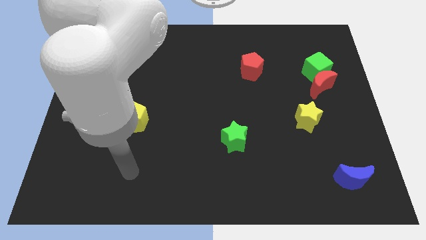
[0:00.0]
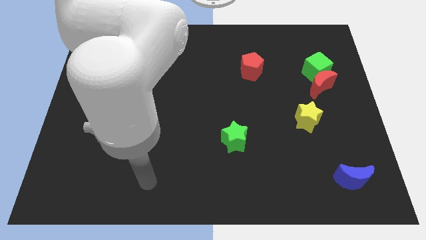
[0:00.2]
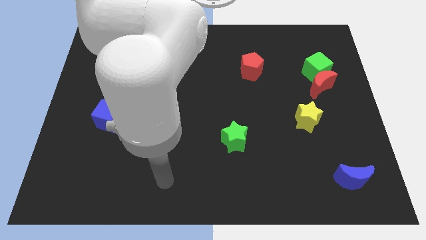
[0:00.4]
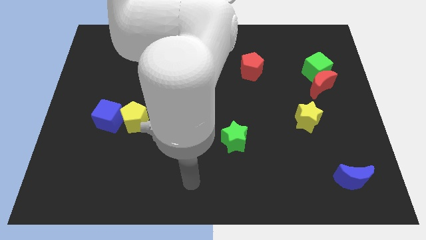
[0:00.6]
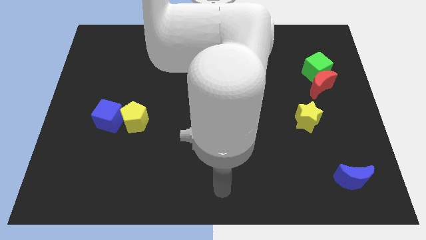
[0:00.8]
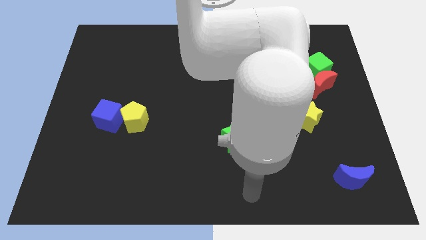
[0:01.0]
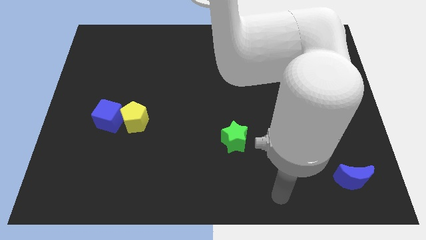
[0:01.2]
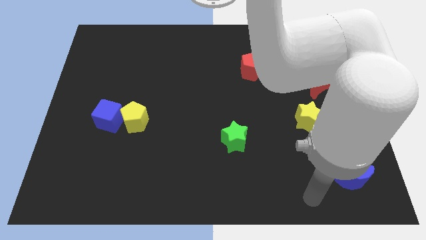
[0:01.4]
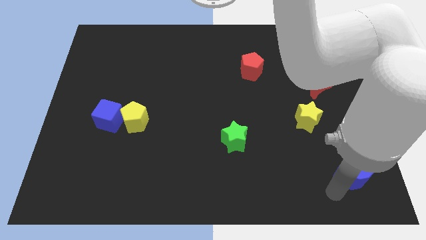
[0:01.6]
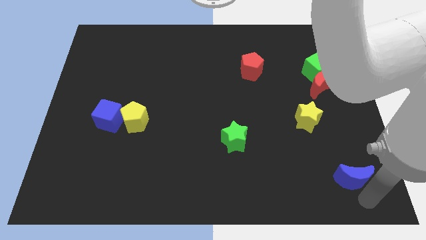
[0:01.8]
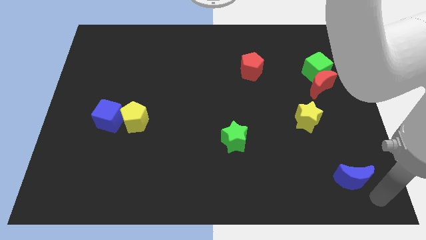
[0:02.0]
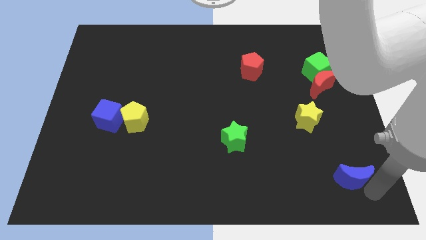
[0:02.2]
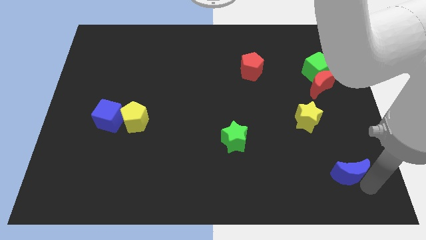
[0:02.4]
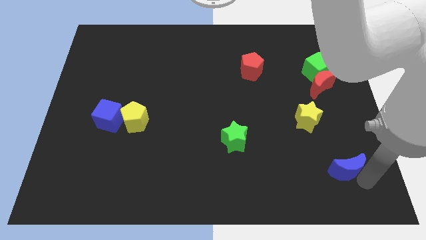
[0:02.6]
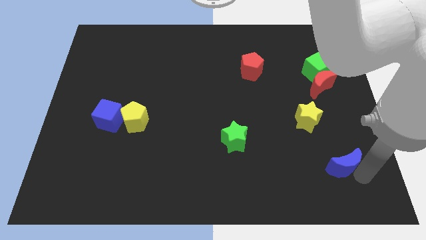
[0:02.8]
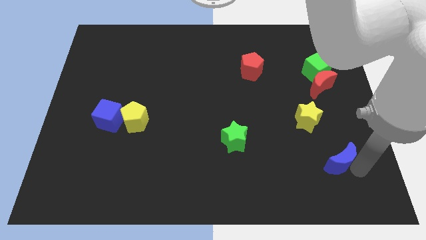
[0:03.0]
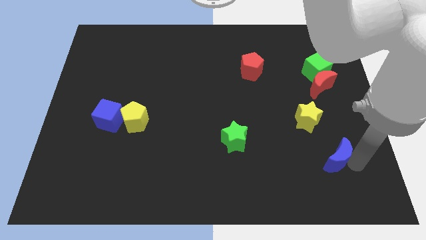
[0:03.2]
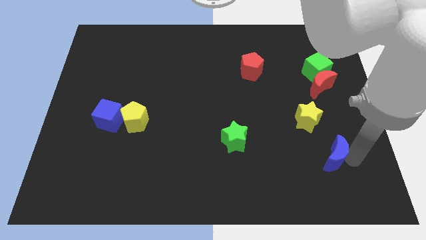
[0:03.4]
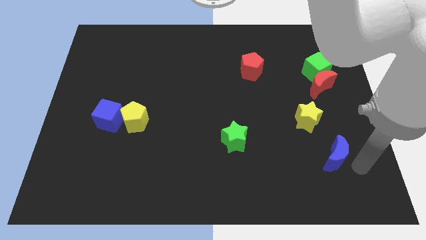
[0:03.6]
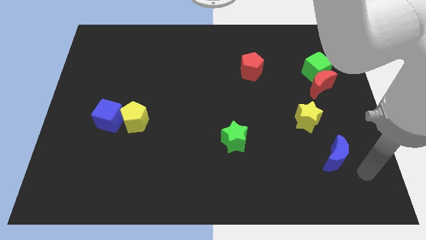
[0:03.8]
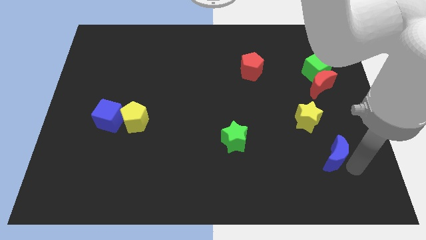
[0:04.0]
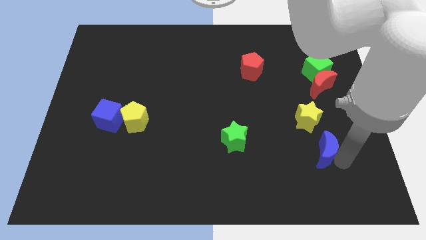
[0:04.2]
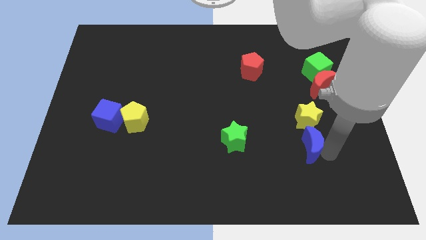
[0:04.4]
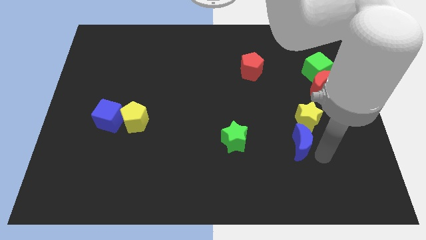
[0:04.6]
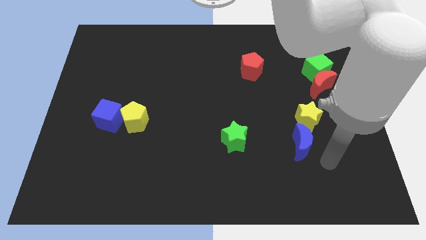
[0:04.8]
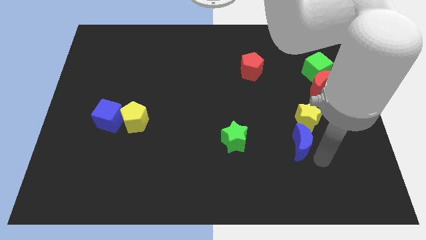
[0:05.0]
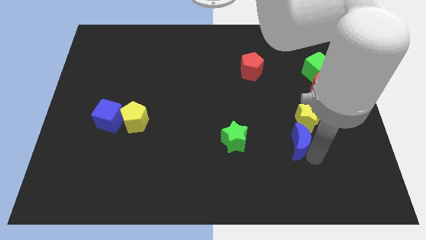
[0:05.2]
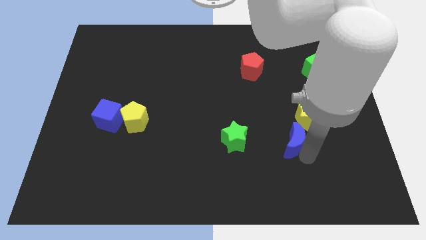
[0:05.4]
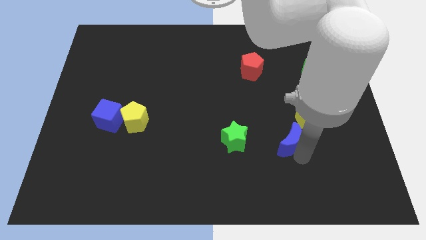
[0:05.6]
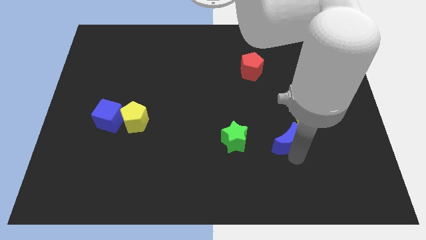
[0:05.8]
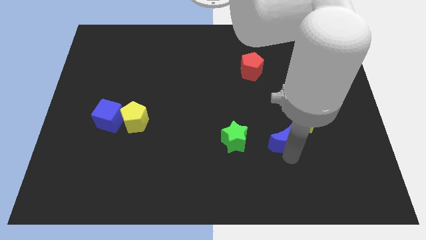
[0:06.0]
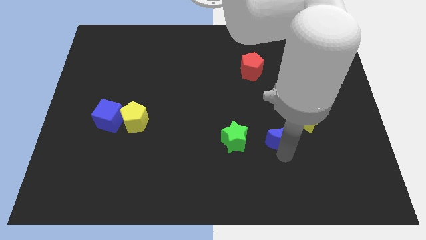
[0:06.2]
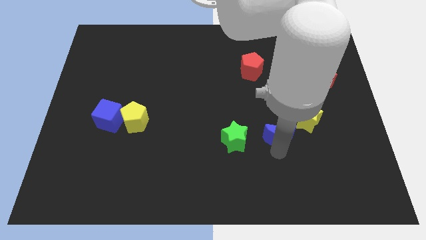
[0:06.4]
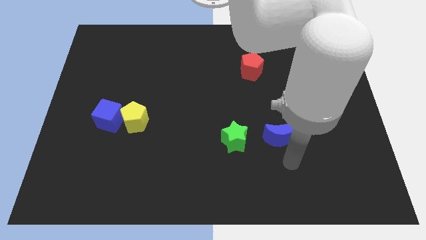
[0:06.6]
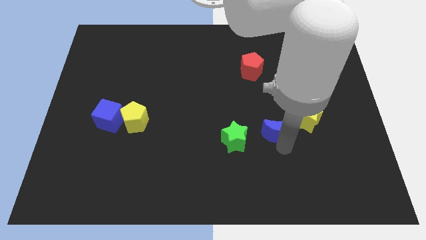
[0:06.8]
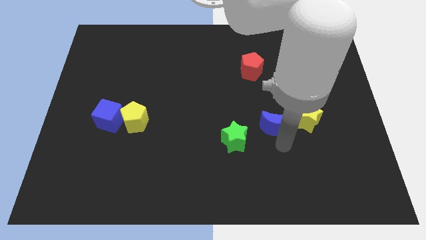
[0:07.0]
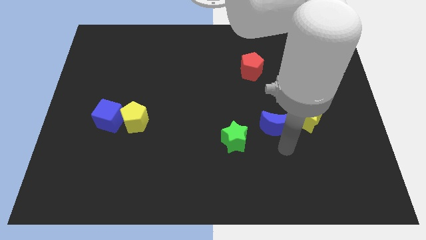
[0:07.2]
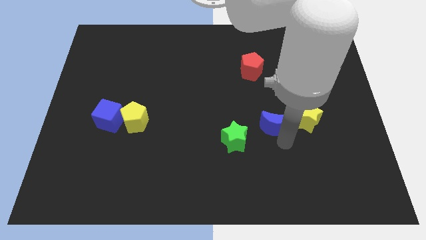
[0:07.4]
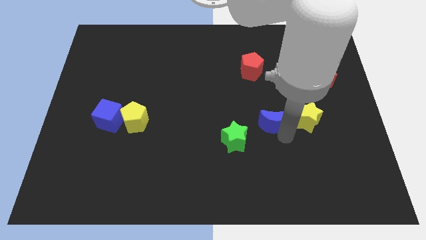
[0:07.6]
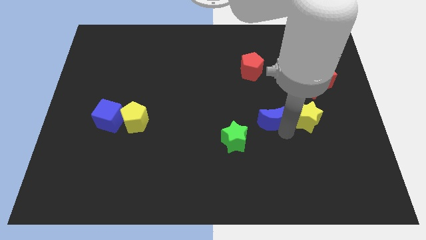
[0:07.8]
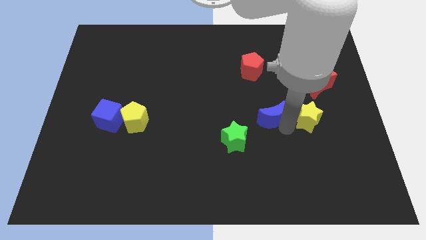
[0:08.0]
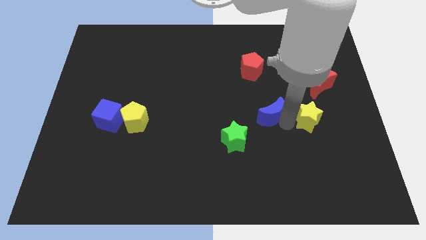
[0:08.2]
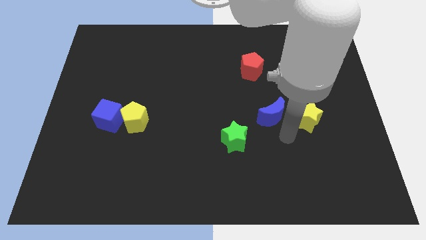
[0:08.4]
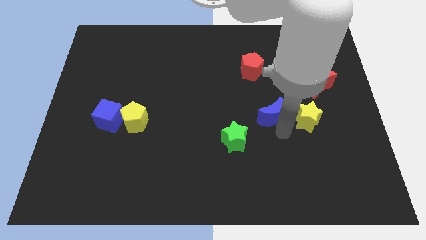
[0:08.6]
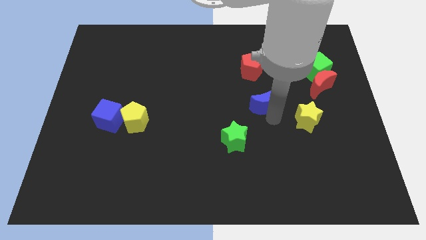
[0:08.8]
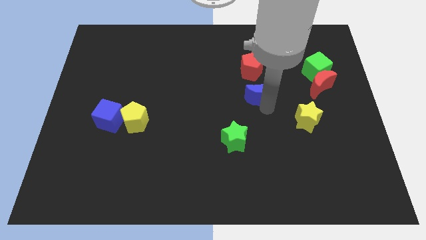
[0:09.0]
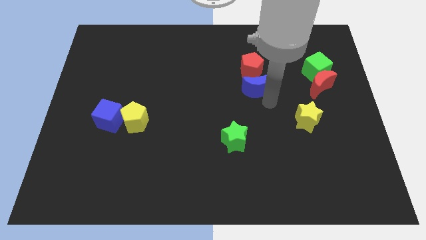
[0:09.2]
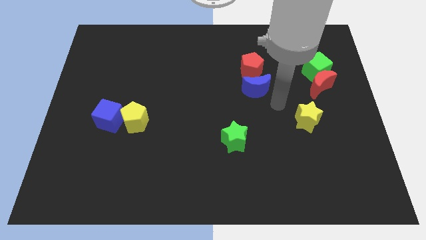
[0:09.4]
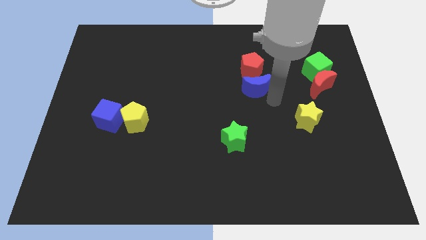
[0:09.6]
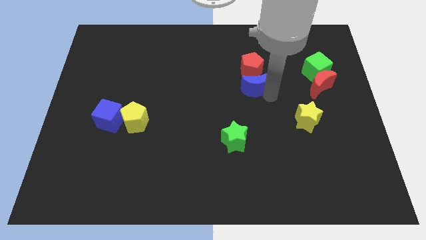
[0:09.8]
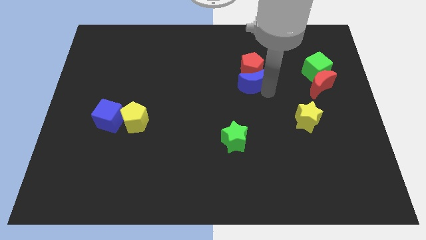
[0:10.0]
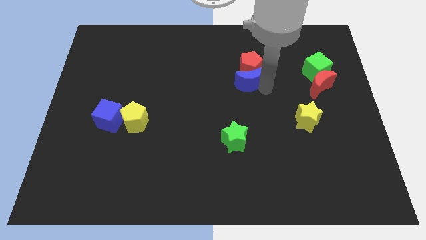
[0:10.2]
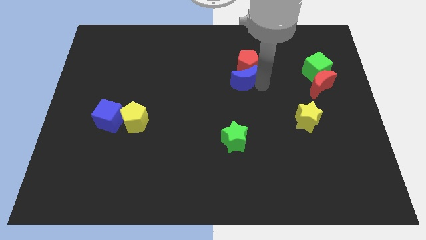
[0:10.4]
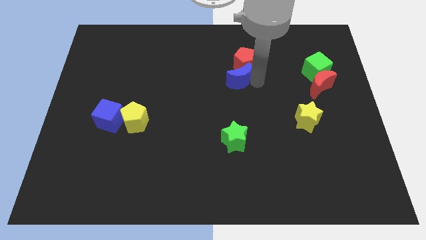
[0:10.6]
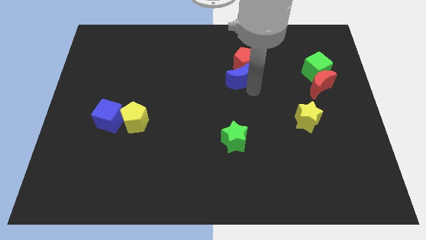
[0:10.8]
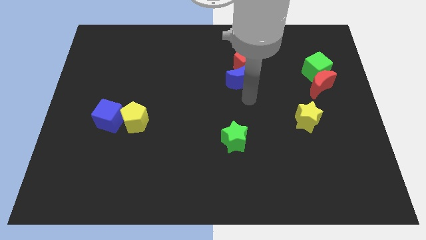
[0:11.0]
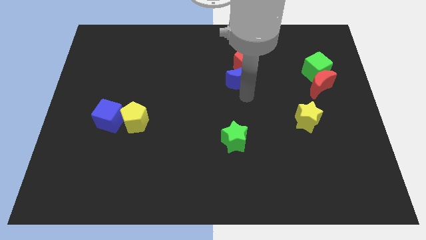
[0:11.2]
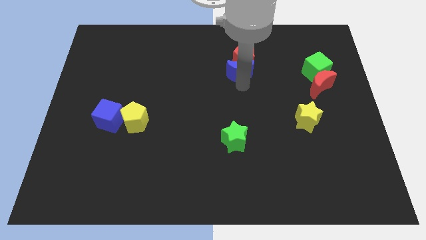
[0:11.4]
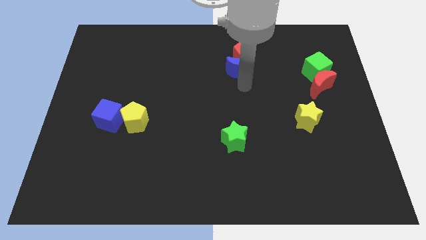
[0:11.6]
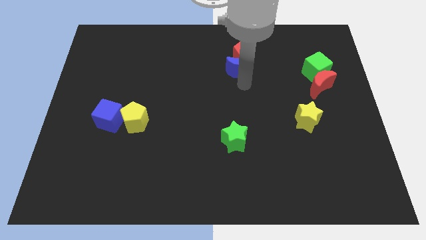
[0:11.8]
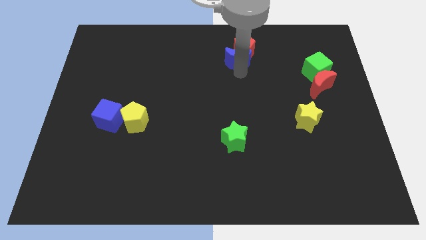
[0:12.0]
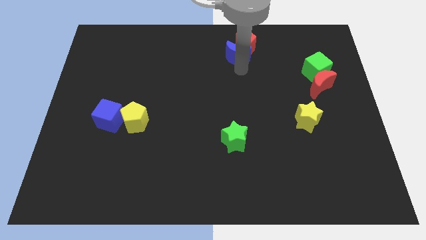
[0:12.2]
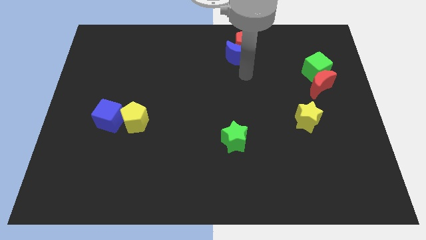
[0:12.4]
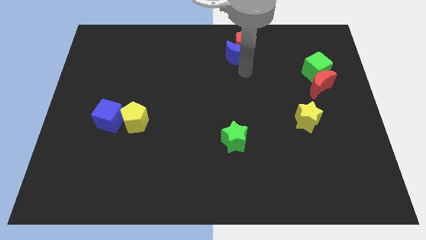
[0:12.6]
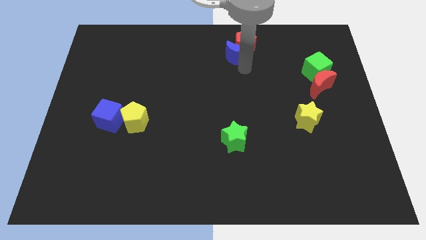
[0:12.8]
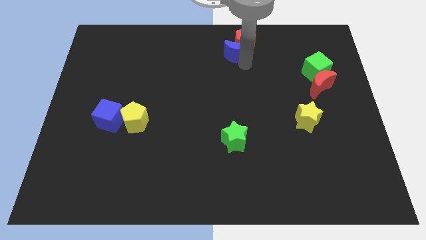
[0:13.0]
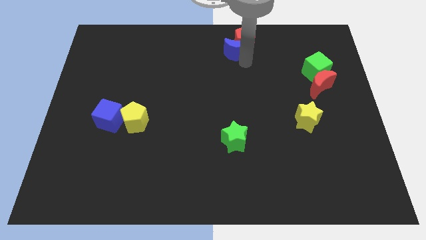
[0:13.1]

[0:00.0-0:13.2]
move the blue moon to the top side
